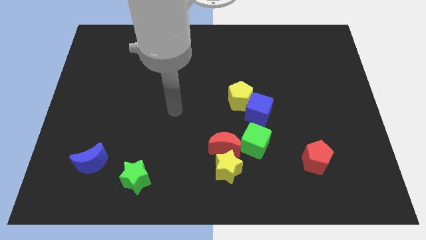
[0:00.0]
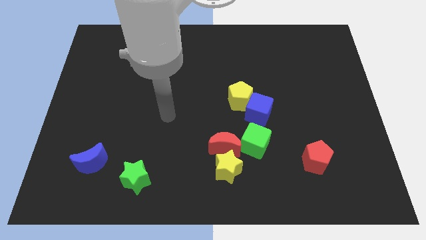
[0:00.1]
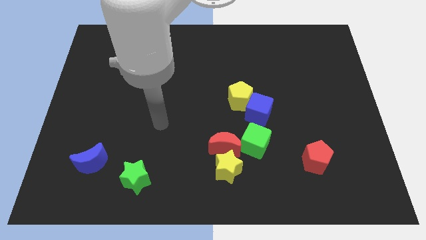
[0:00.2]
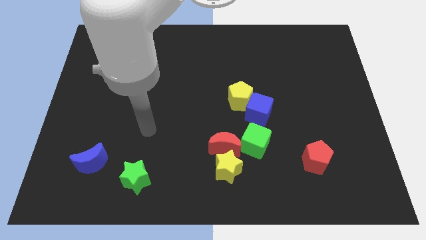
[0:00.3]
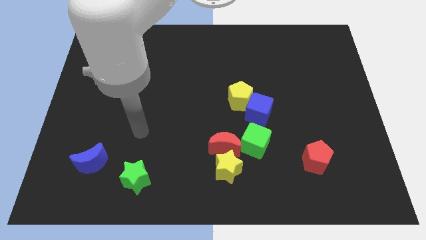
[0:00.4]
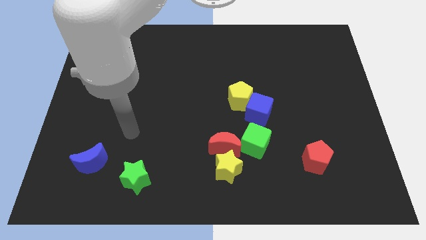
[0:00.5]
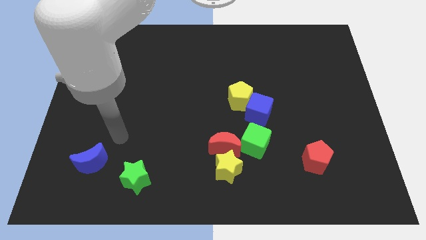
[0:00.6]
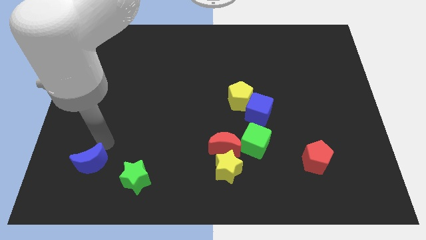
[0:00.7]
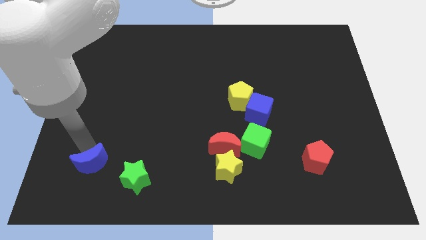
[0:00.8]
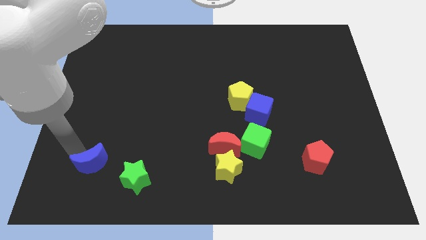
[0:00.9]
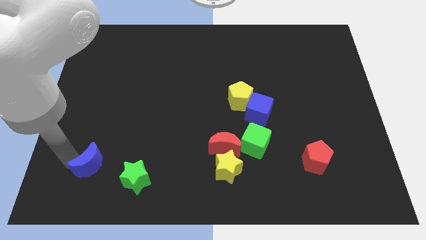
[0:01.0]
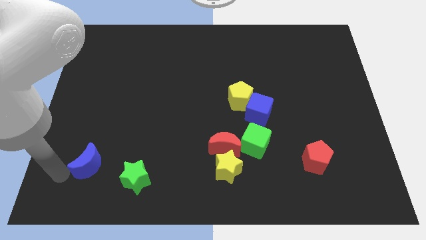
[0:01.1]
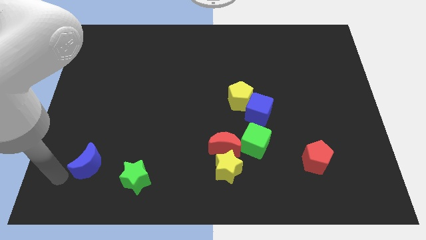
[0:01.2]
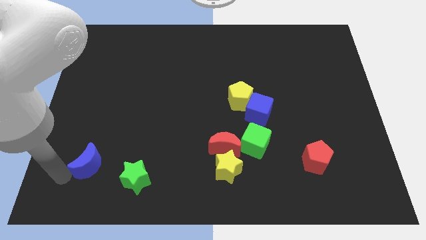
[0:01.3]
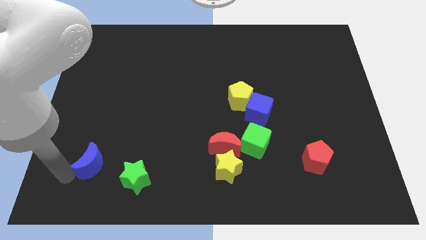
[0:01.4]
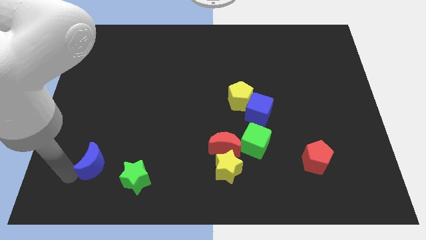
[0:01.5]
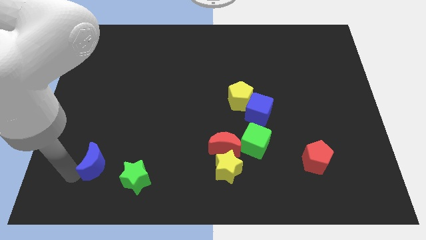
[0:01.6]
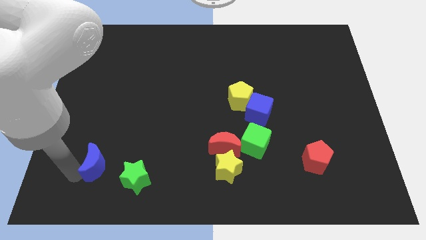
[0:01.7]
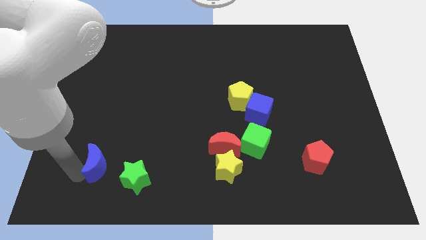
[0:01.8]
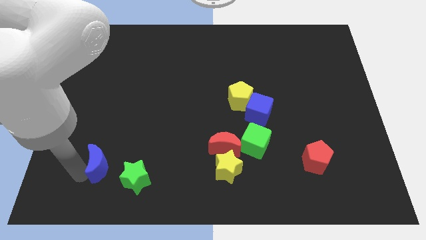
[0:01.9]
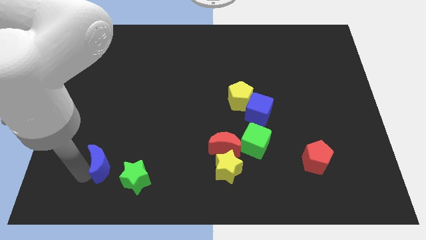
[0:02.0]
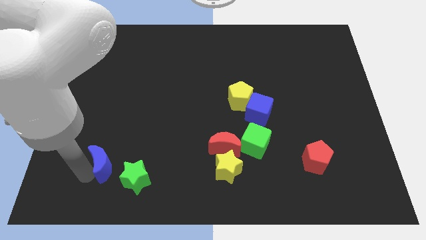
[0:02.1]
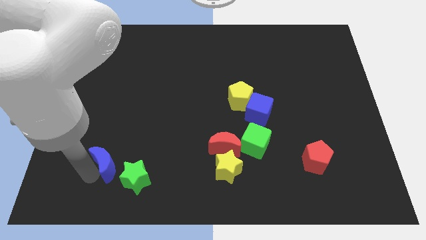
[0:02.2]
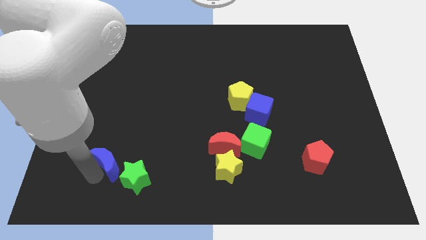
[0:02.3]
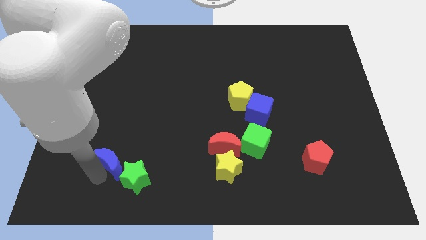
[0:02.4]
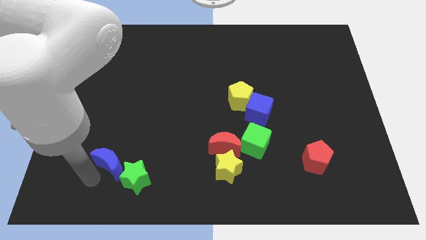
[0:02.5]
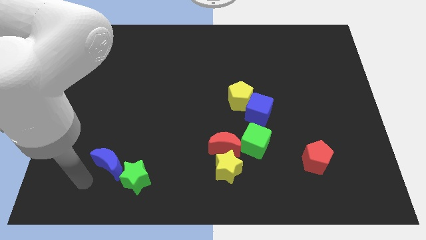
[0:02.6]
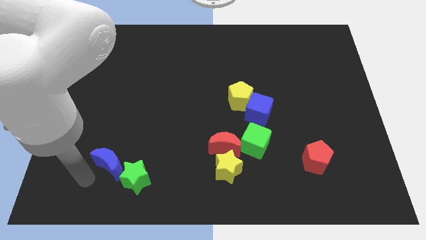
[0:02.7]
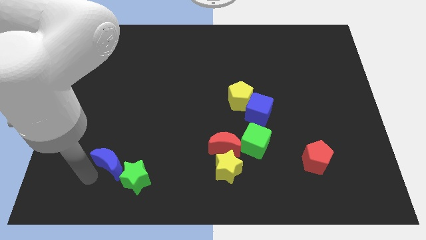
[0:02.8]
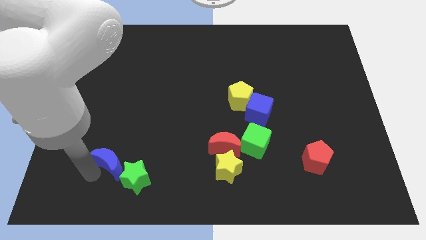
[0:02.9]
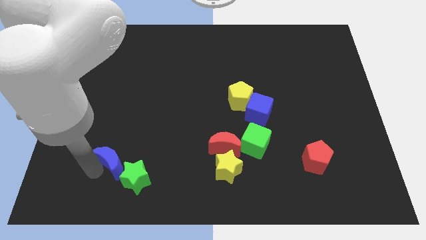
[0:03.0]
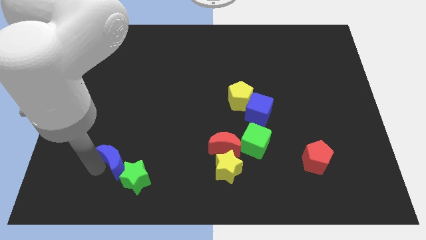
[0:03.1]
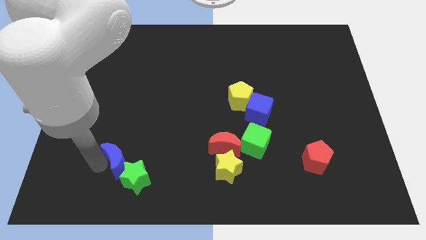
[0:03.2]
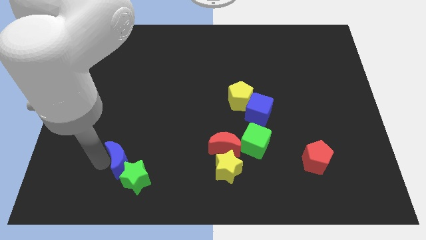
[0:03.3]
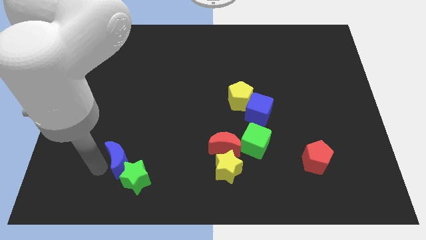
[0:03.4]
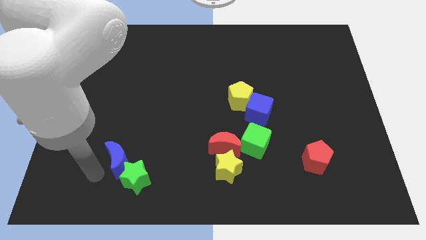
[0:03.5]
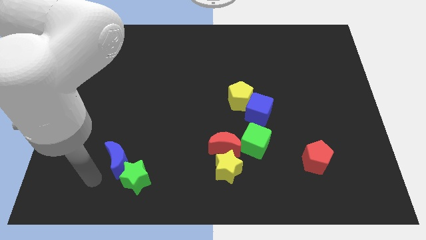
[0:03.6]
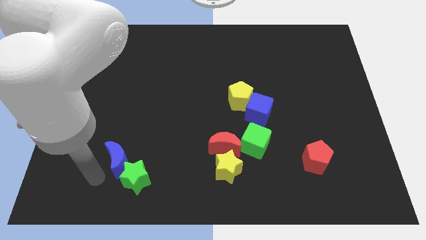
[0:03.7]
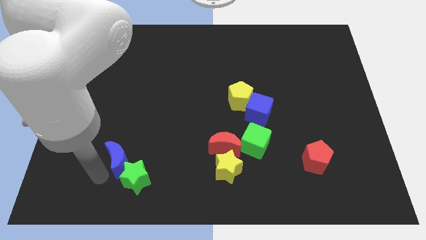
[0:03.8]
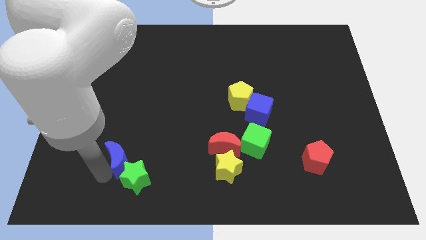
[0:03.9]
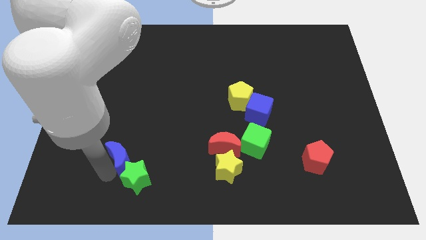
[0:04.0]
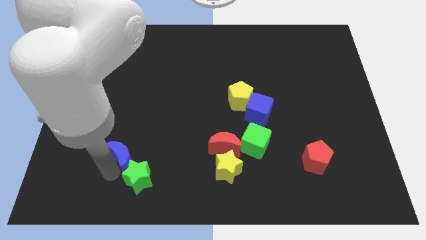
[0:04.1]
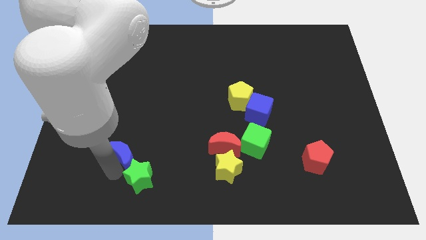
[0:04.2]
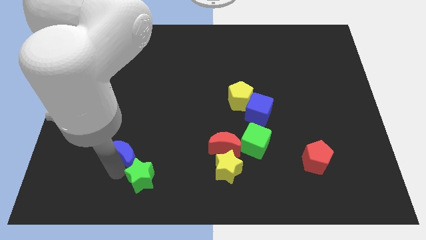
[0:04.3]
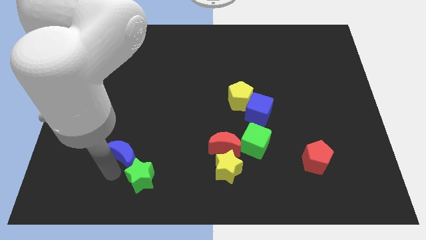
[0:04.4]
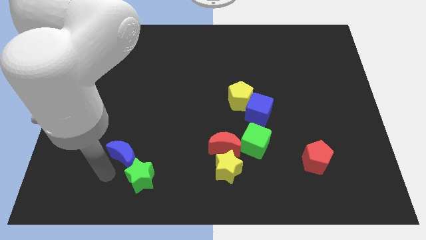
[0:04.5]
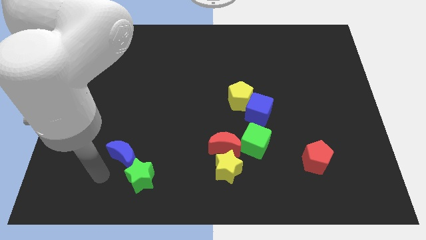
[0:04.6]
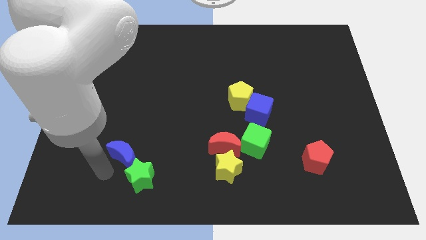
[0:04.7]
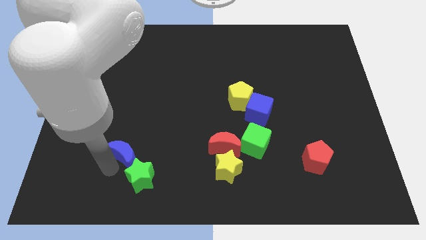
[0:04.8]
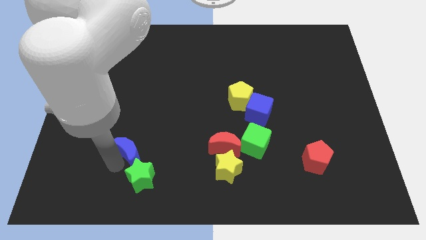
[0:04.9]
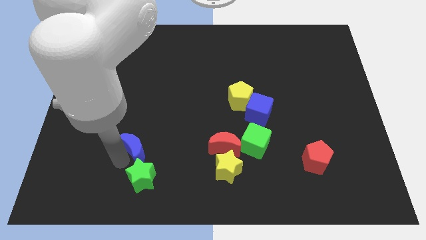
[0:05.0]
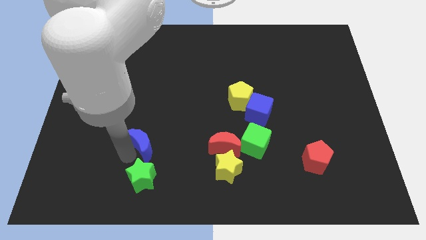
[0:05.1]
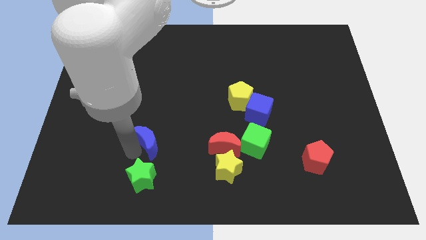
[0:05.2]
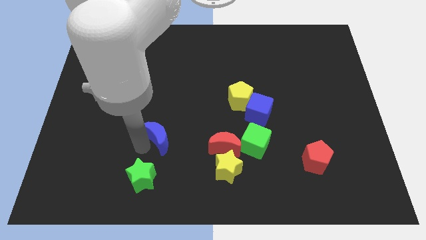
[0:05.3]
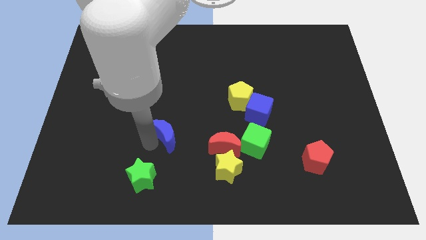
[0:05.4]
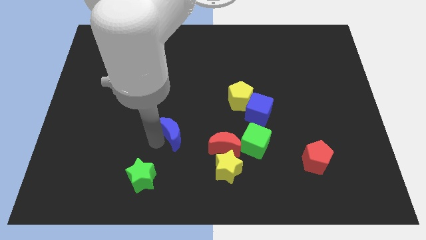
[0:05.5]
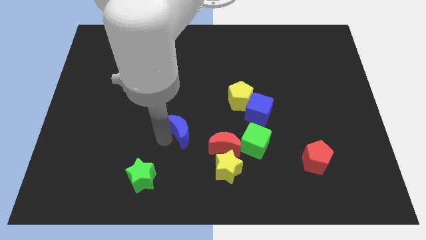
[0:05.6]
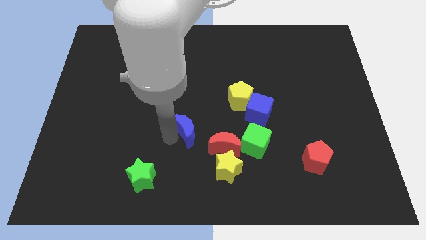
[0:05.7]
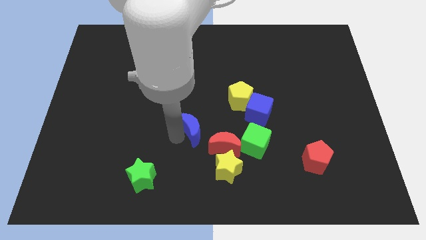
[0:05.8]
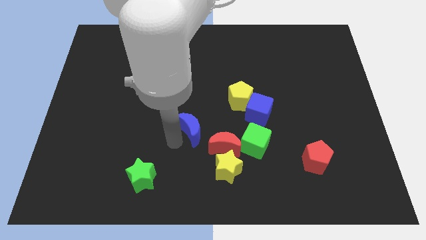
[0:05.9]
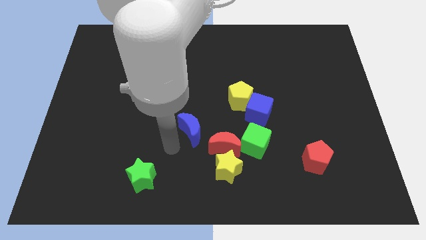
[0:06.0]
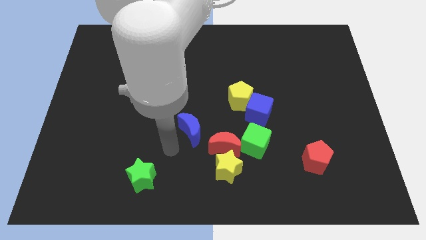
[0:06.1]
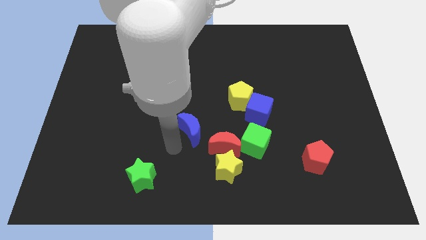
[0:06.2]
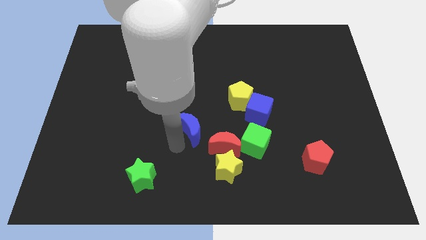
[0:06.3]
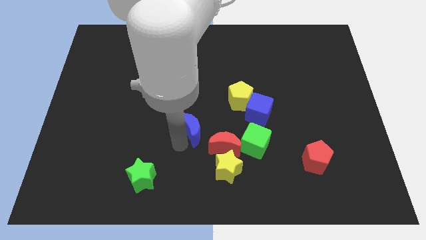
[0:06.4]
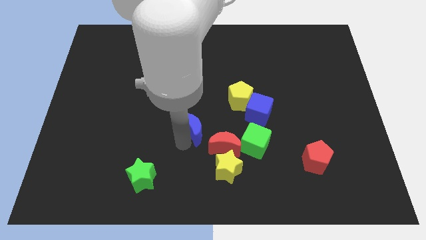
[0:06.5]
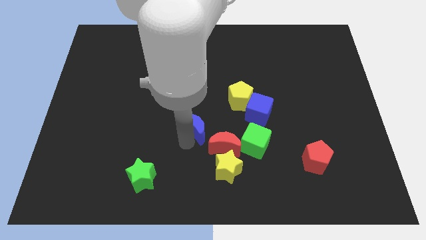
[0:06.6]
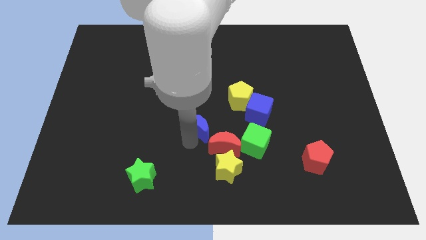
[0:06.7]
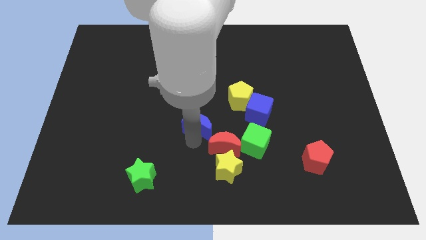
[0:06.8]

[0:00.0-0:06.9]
push the blue moon just left of the blue cube
